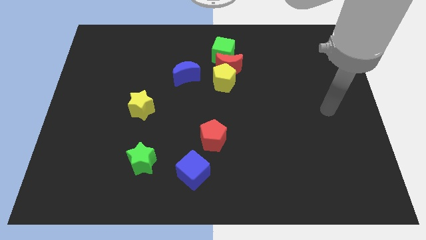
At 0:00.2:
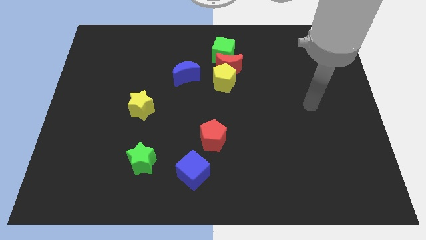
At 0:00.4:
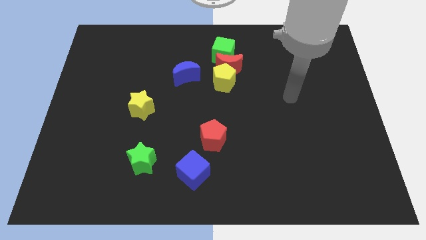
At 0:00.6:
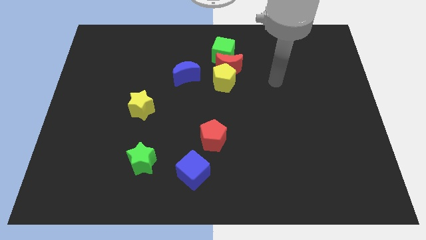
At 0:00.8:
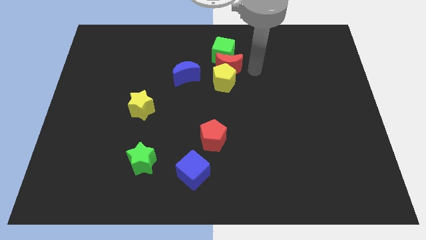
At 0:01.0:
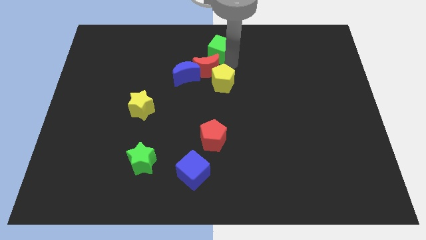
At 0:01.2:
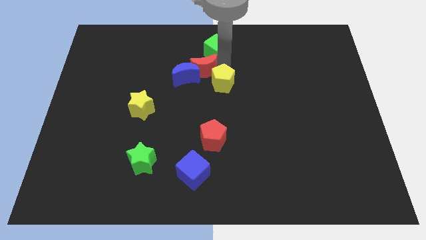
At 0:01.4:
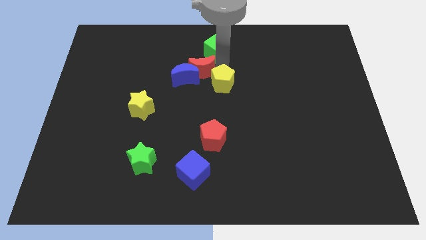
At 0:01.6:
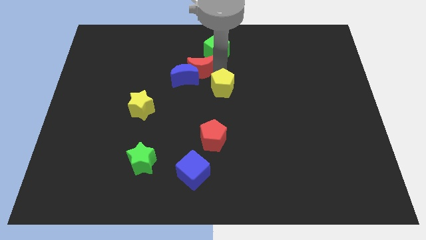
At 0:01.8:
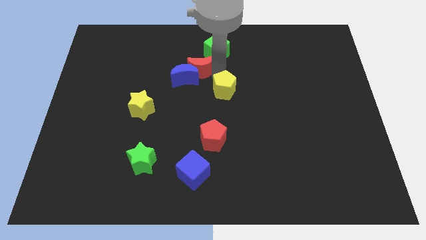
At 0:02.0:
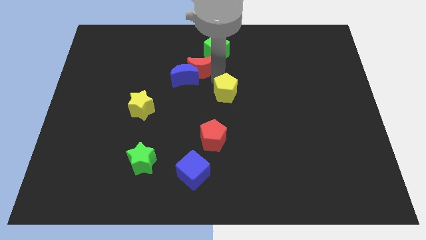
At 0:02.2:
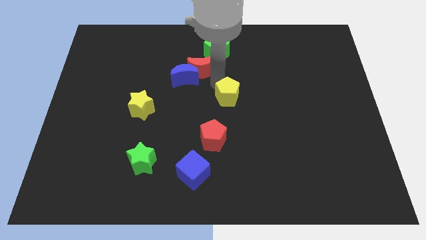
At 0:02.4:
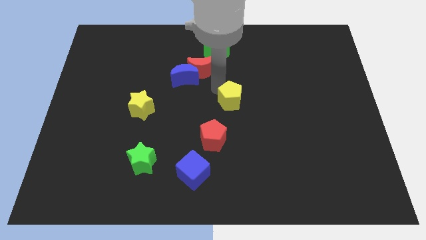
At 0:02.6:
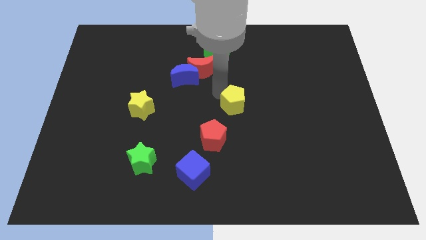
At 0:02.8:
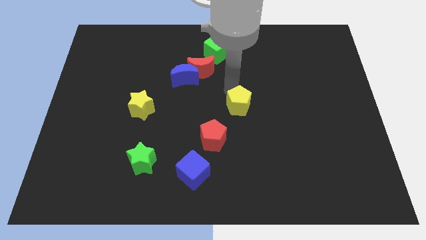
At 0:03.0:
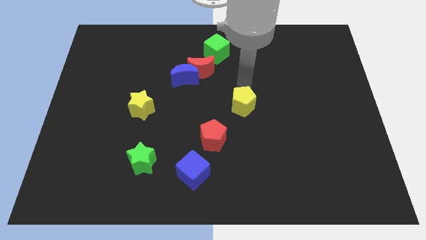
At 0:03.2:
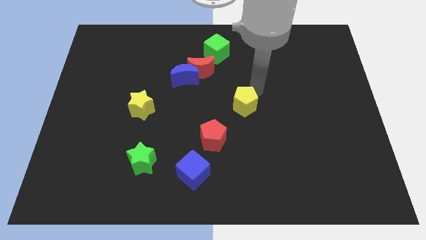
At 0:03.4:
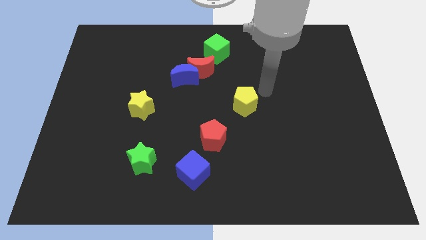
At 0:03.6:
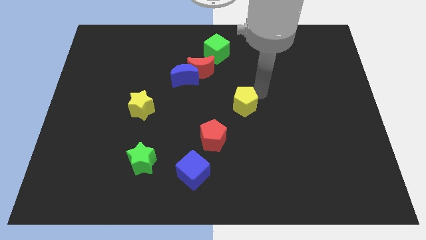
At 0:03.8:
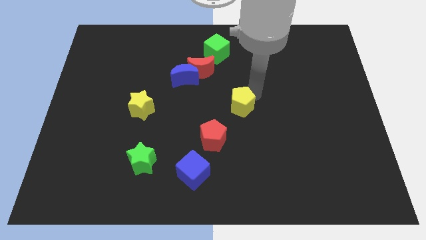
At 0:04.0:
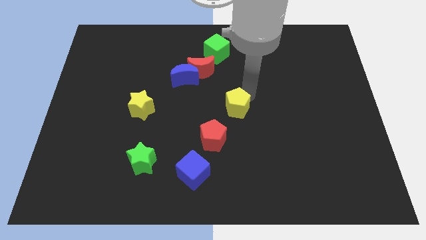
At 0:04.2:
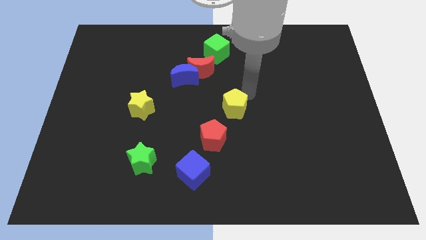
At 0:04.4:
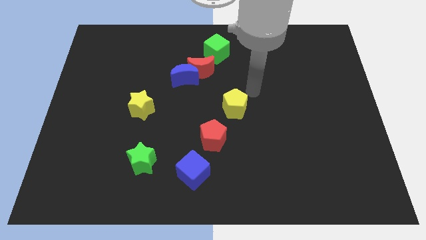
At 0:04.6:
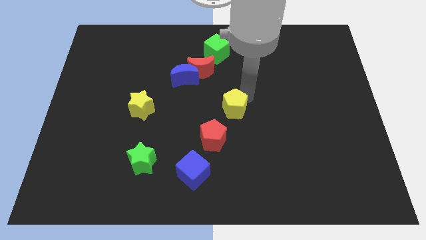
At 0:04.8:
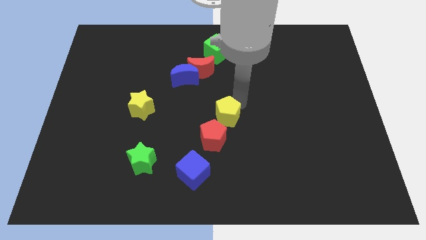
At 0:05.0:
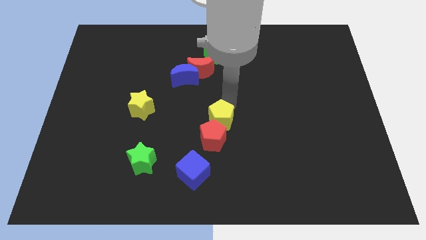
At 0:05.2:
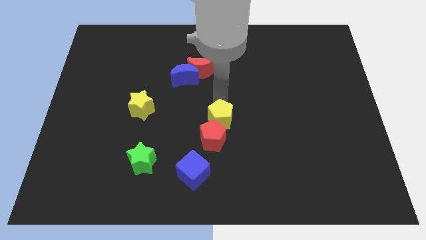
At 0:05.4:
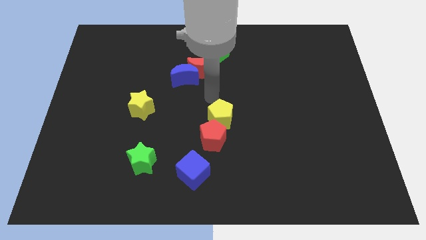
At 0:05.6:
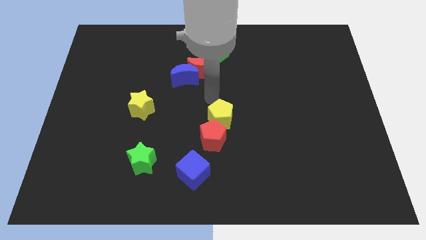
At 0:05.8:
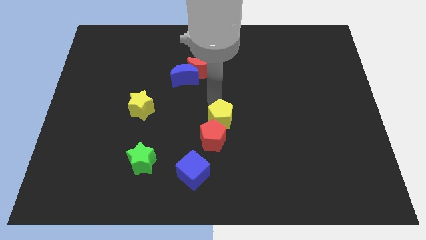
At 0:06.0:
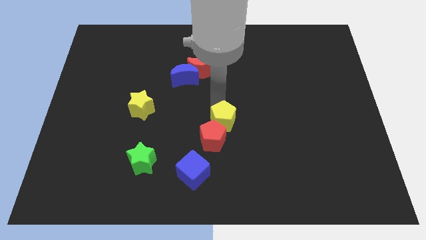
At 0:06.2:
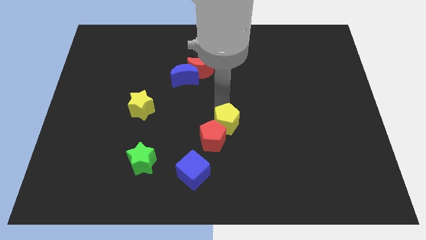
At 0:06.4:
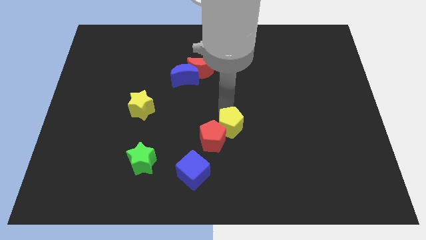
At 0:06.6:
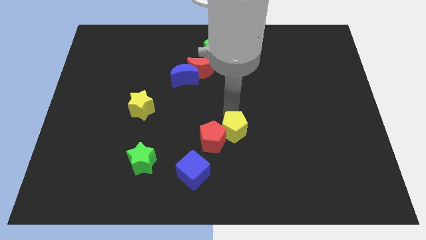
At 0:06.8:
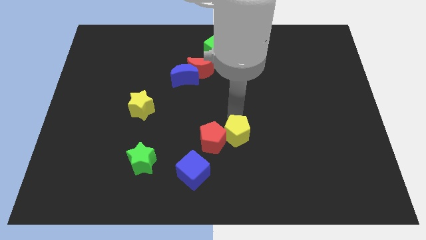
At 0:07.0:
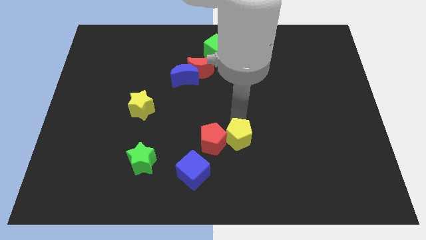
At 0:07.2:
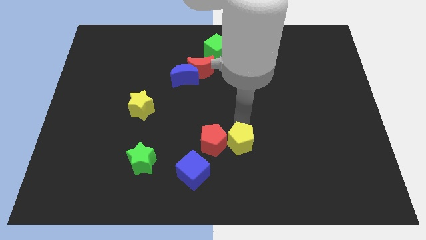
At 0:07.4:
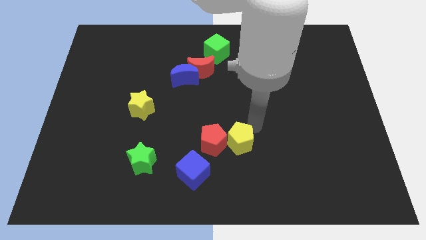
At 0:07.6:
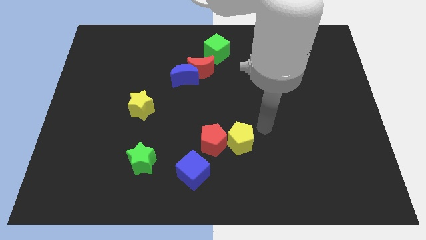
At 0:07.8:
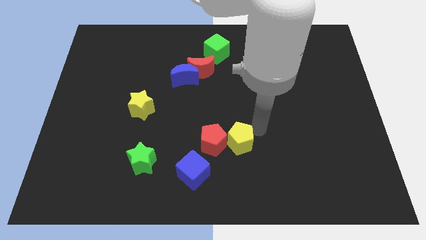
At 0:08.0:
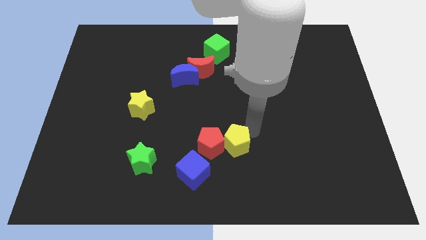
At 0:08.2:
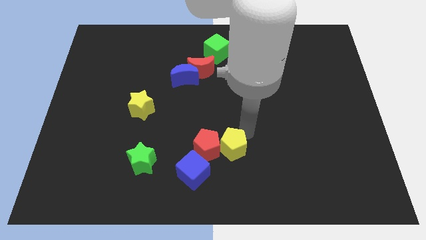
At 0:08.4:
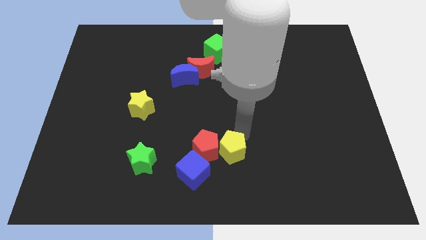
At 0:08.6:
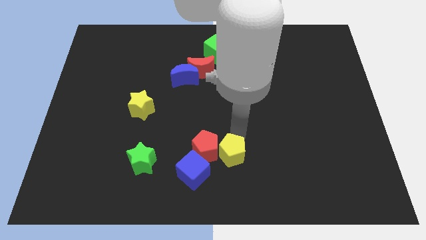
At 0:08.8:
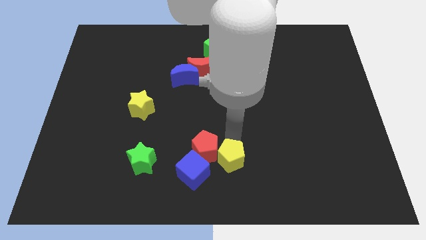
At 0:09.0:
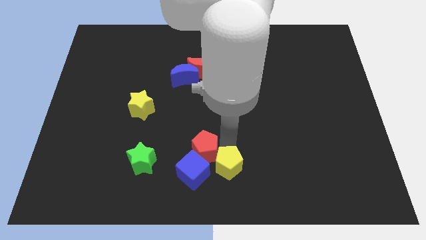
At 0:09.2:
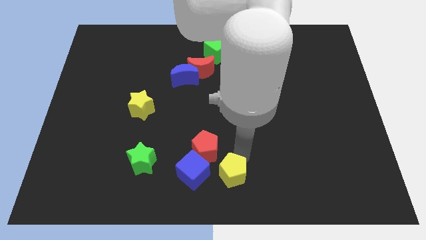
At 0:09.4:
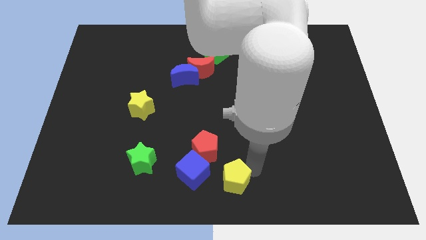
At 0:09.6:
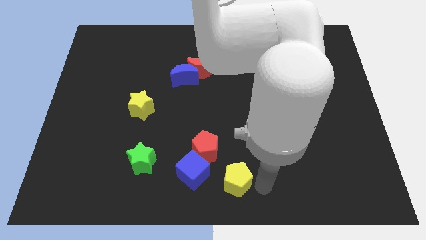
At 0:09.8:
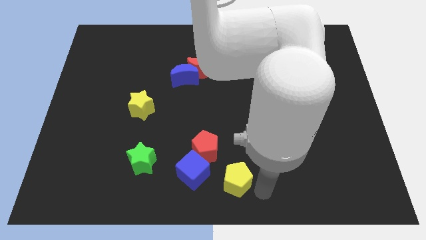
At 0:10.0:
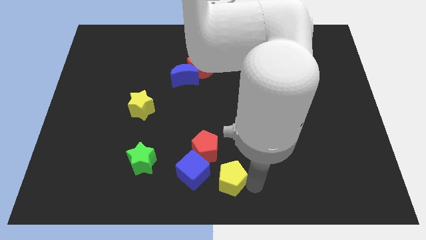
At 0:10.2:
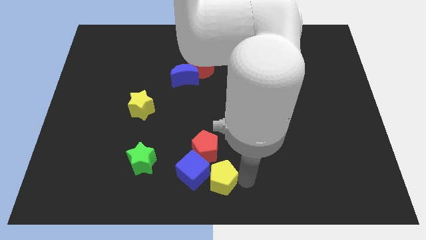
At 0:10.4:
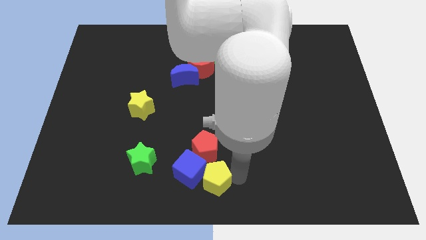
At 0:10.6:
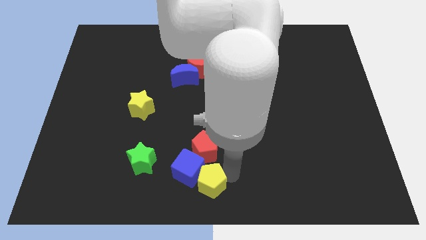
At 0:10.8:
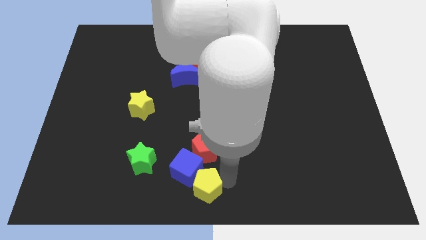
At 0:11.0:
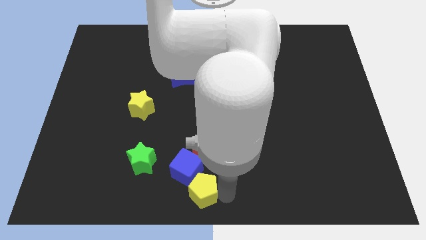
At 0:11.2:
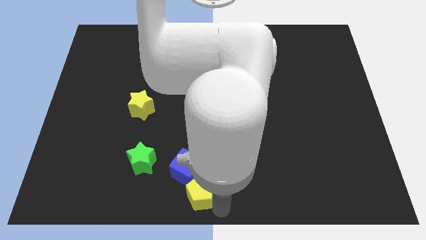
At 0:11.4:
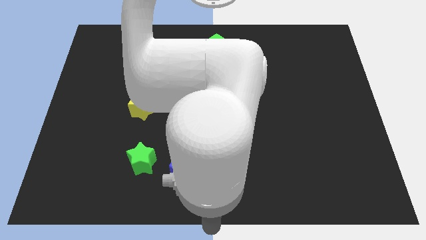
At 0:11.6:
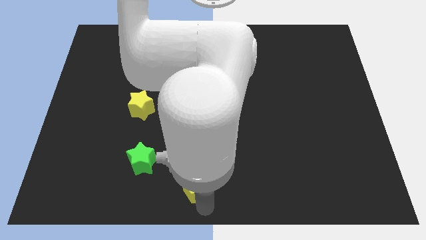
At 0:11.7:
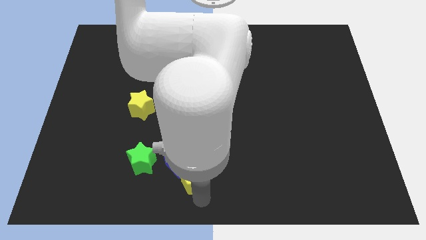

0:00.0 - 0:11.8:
slide the yellow pentagon right of the green star

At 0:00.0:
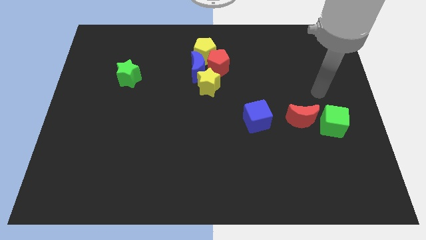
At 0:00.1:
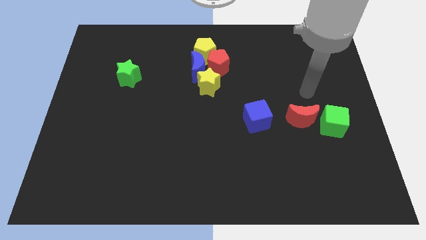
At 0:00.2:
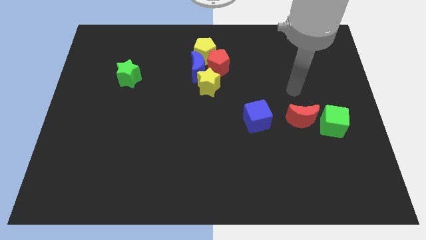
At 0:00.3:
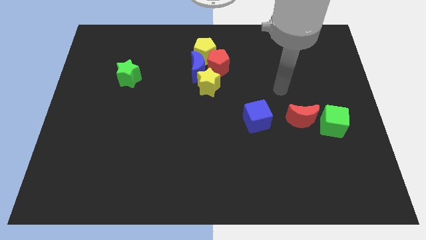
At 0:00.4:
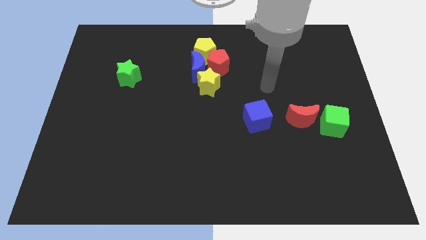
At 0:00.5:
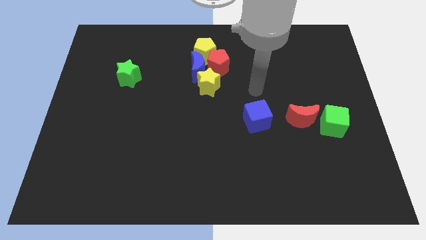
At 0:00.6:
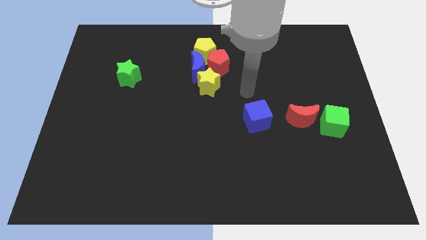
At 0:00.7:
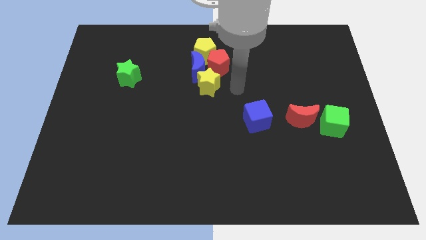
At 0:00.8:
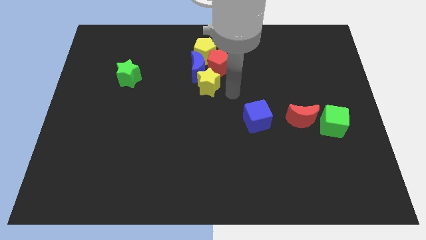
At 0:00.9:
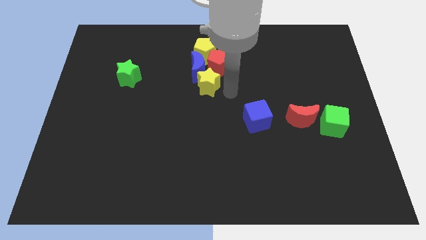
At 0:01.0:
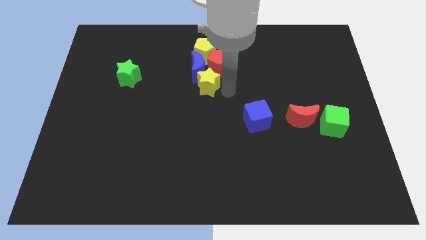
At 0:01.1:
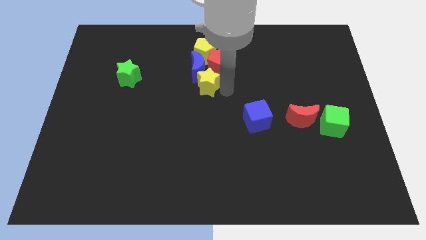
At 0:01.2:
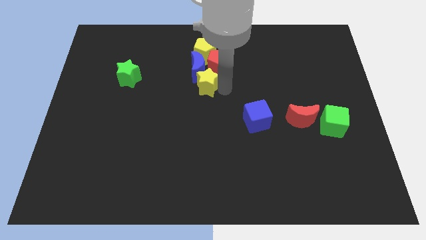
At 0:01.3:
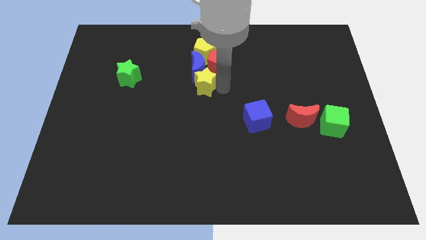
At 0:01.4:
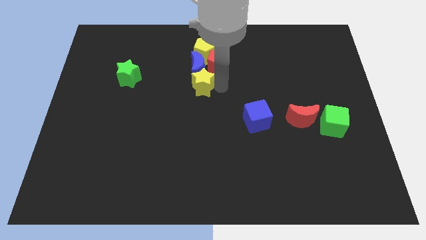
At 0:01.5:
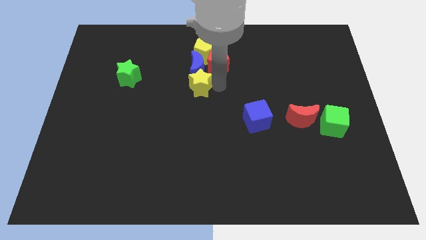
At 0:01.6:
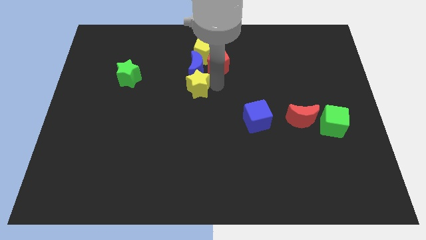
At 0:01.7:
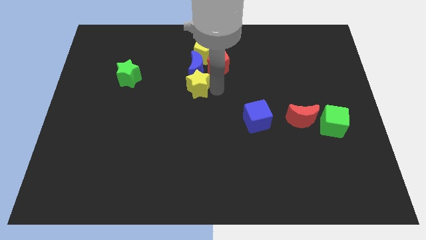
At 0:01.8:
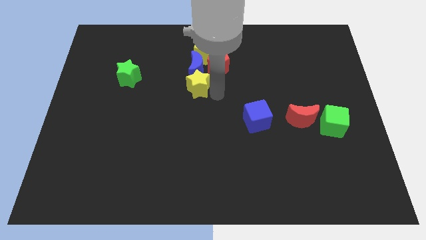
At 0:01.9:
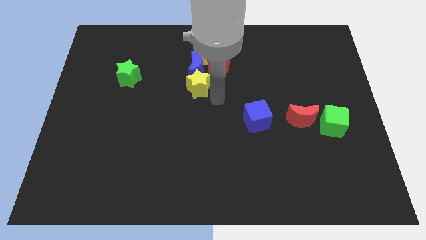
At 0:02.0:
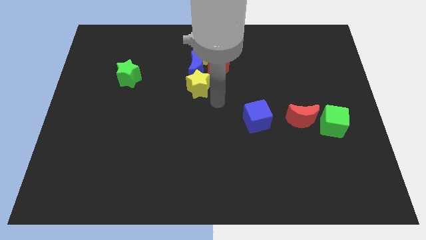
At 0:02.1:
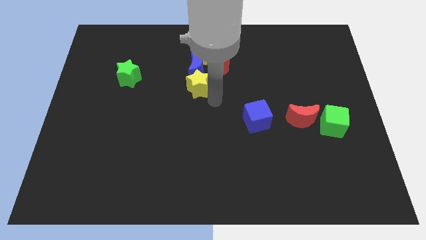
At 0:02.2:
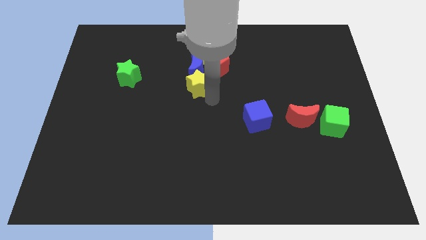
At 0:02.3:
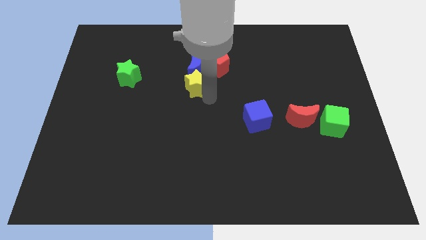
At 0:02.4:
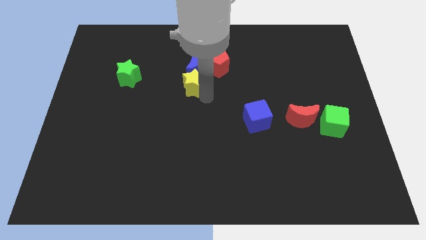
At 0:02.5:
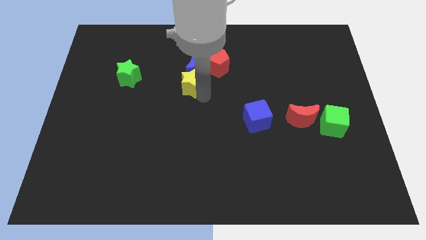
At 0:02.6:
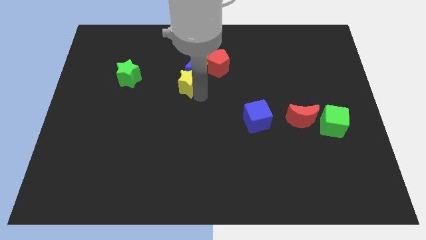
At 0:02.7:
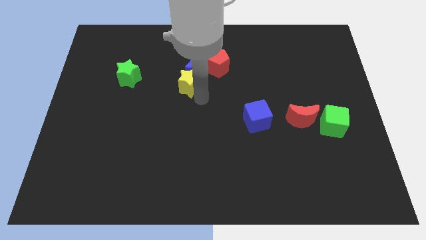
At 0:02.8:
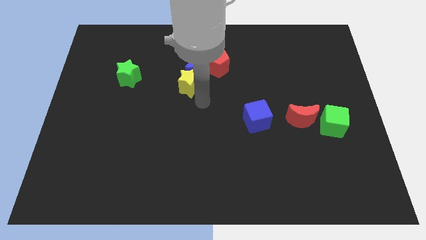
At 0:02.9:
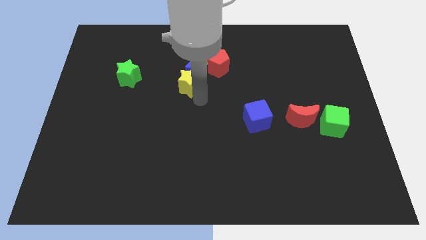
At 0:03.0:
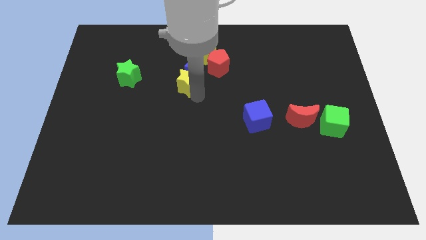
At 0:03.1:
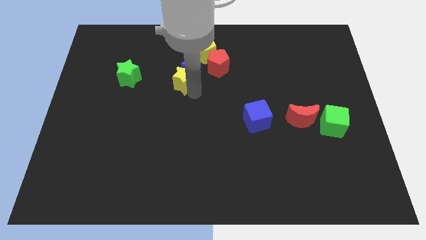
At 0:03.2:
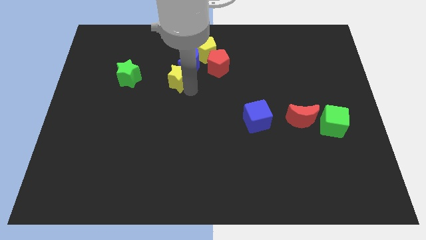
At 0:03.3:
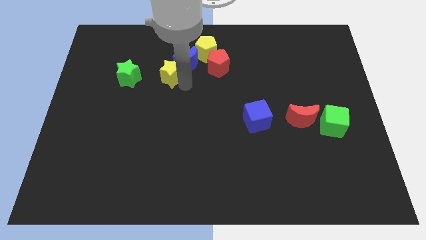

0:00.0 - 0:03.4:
put the yellow star to the left side of the blue moon
